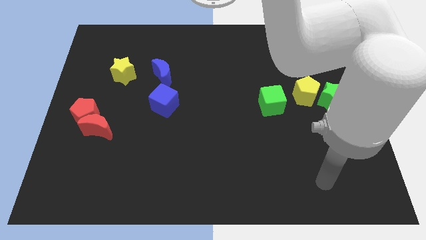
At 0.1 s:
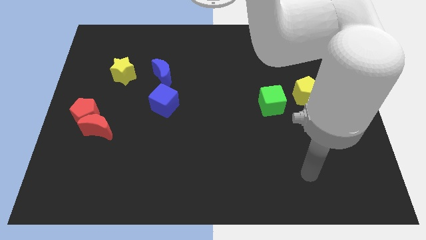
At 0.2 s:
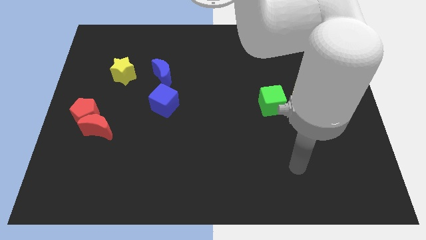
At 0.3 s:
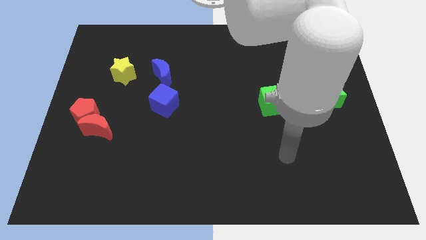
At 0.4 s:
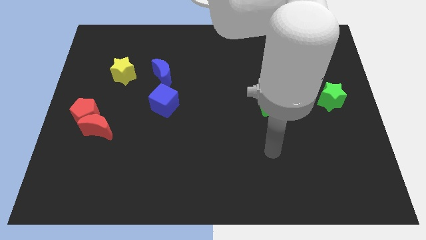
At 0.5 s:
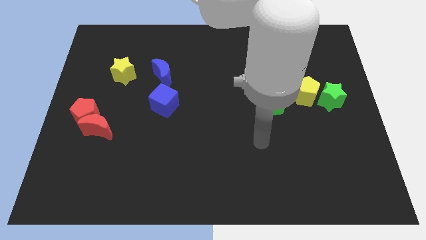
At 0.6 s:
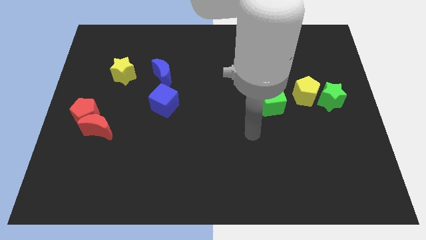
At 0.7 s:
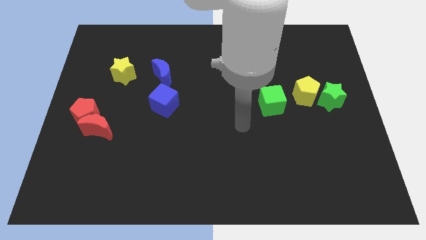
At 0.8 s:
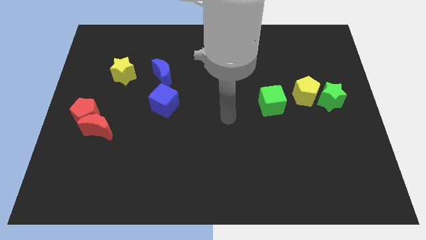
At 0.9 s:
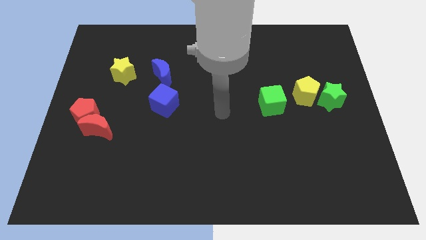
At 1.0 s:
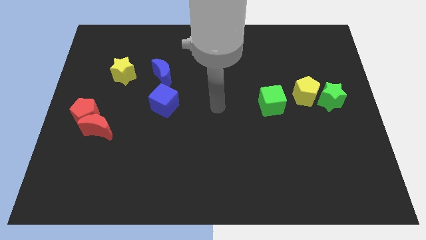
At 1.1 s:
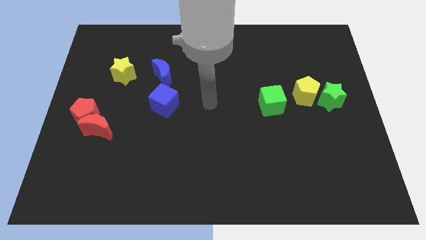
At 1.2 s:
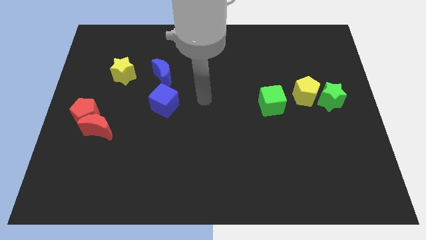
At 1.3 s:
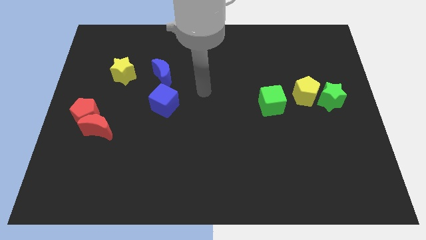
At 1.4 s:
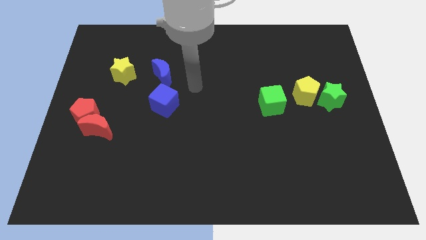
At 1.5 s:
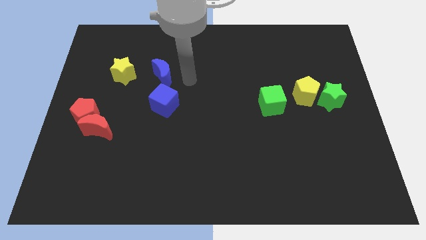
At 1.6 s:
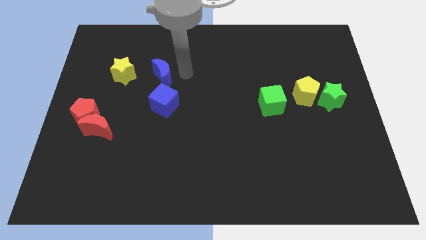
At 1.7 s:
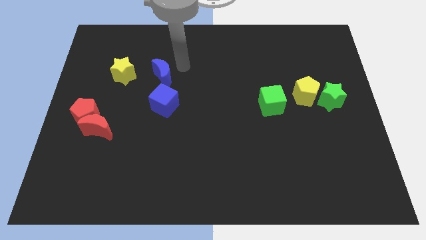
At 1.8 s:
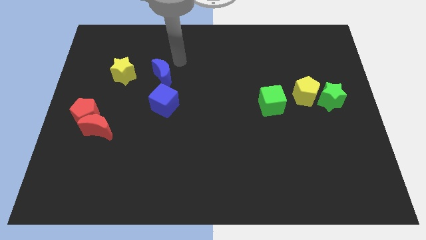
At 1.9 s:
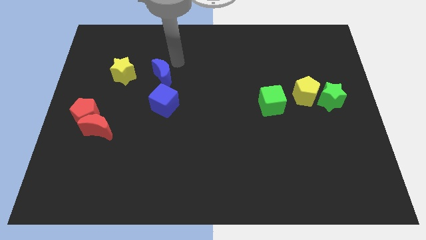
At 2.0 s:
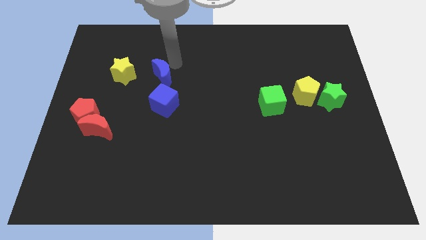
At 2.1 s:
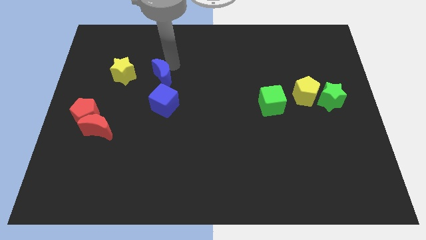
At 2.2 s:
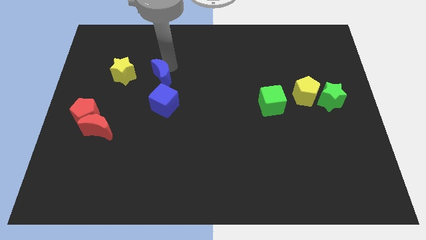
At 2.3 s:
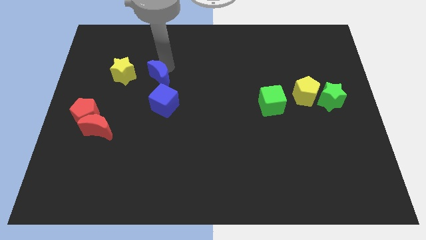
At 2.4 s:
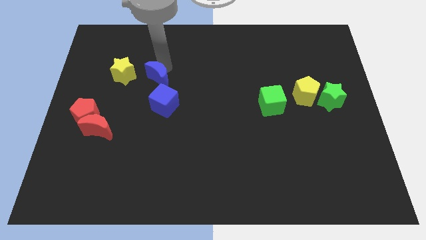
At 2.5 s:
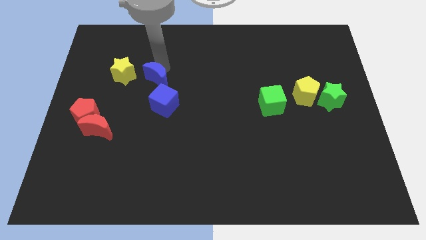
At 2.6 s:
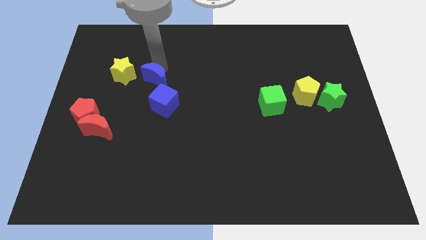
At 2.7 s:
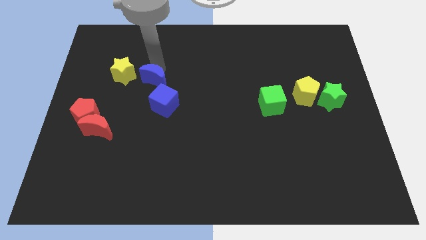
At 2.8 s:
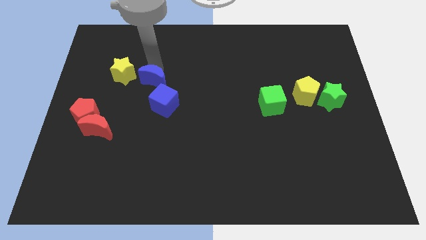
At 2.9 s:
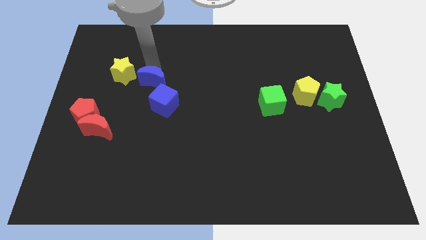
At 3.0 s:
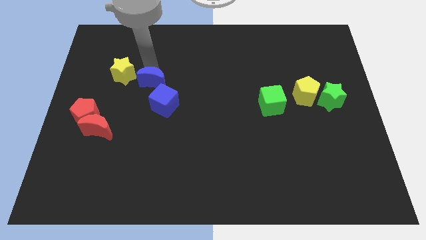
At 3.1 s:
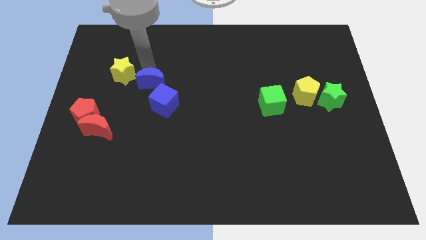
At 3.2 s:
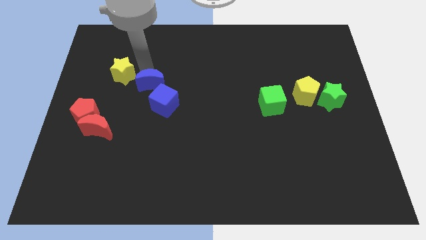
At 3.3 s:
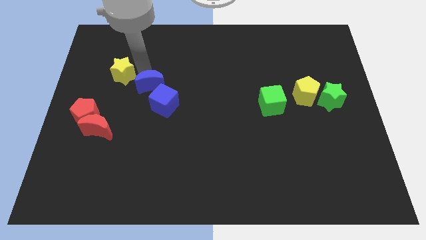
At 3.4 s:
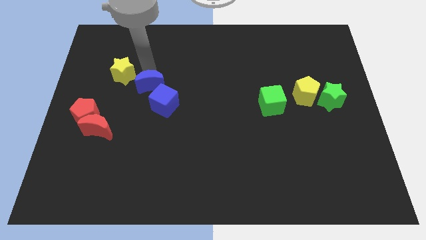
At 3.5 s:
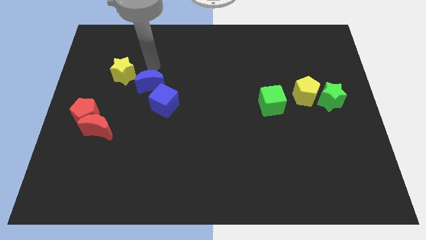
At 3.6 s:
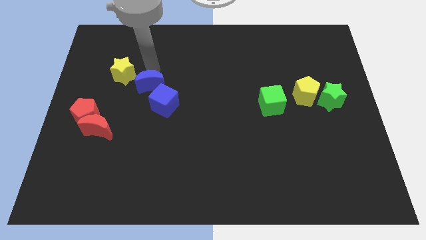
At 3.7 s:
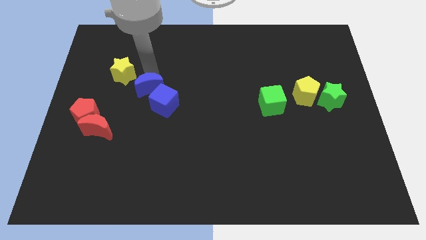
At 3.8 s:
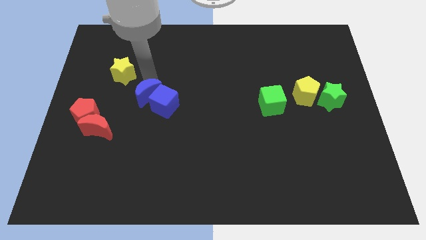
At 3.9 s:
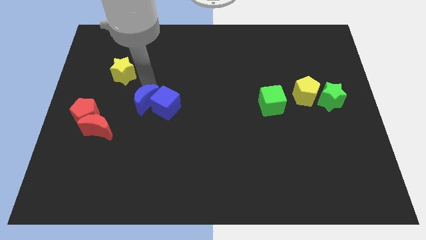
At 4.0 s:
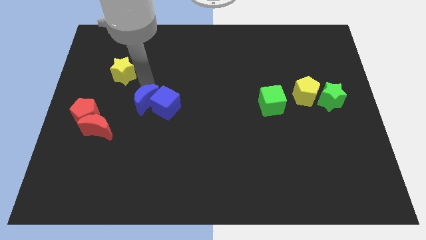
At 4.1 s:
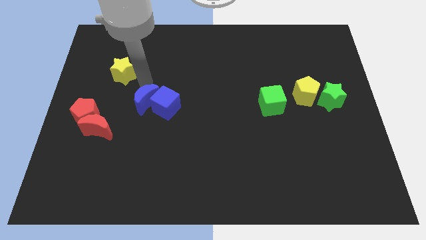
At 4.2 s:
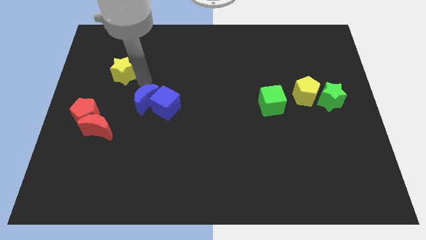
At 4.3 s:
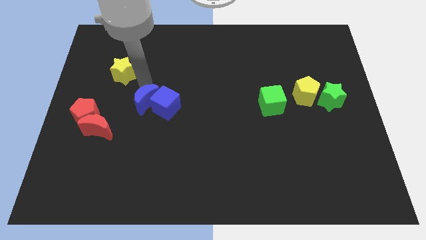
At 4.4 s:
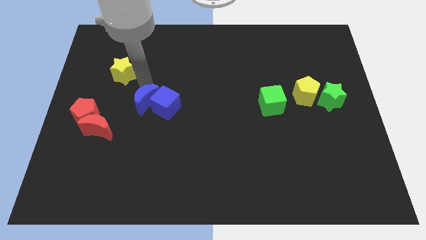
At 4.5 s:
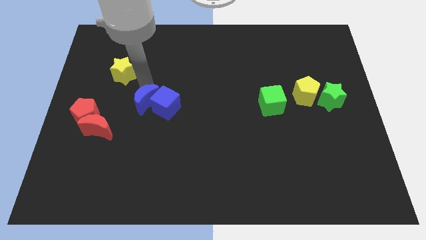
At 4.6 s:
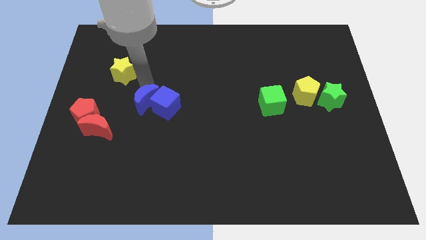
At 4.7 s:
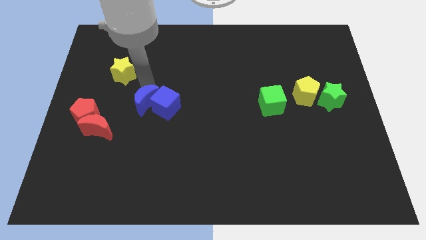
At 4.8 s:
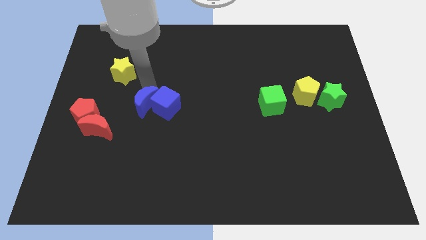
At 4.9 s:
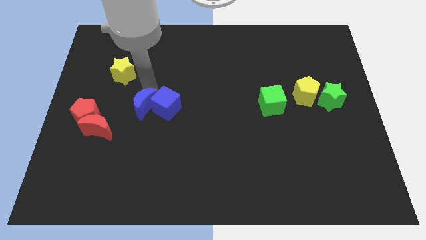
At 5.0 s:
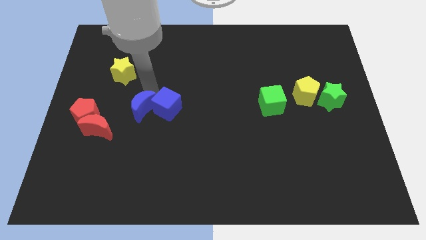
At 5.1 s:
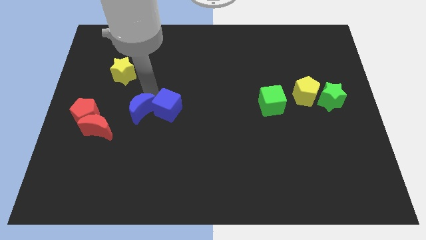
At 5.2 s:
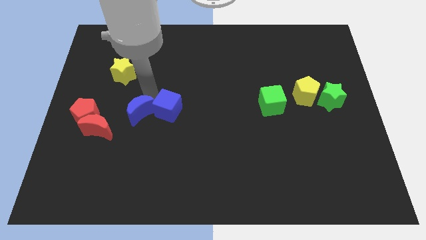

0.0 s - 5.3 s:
move the blue moon just right of the red moon
